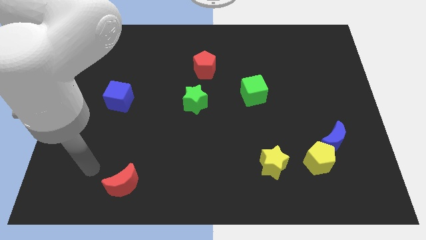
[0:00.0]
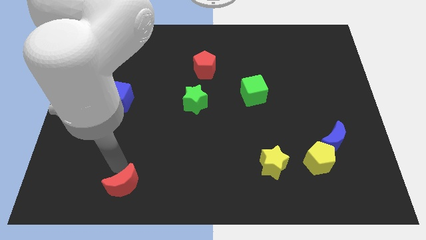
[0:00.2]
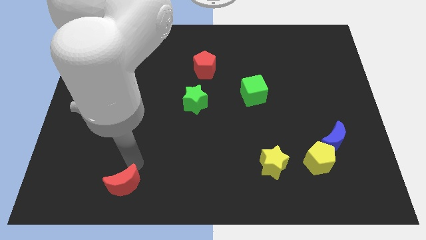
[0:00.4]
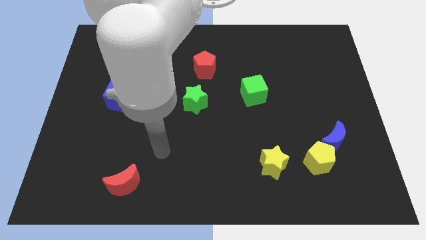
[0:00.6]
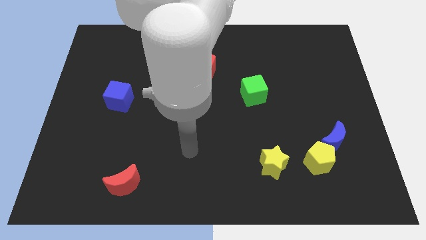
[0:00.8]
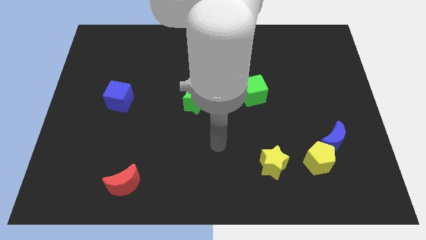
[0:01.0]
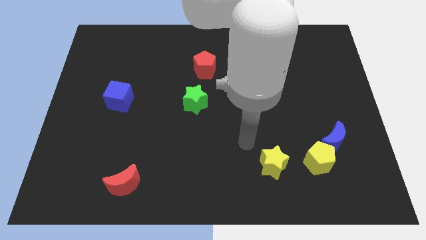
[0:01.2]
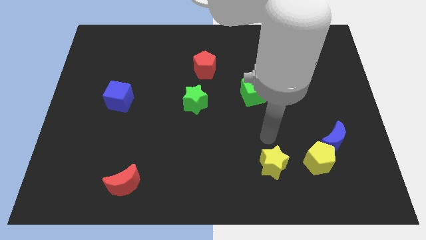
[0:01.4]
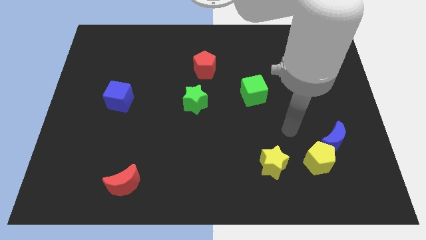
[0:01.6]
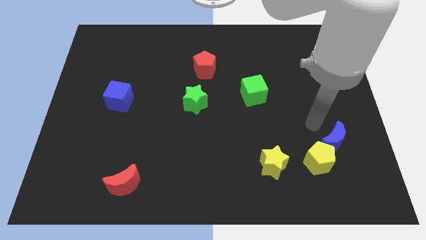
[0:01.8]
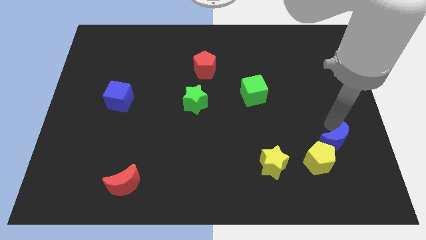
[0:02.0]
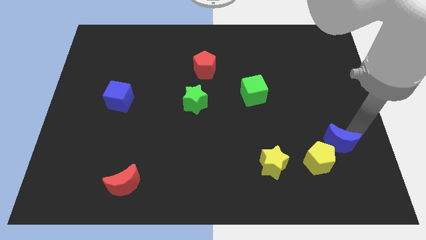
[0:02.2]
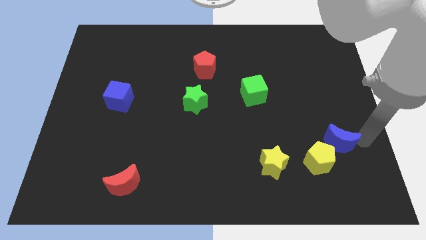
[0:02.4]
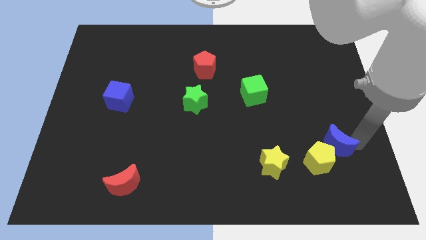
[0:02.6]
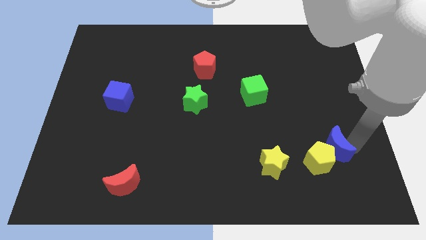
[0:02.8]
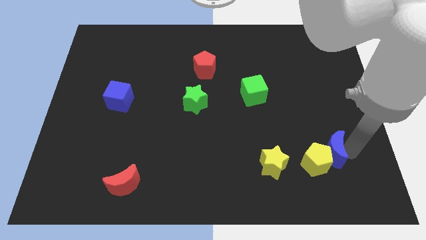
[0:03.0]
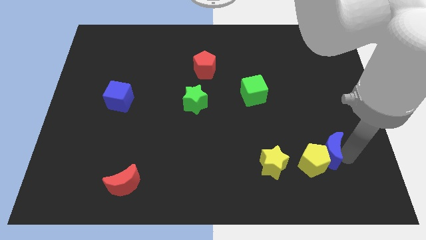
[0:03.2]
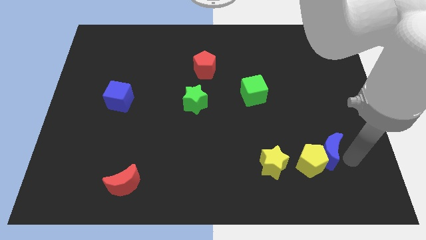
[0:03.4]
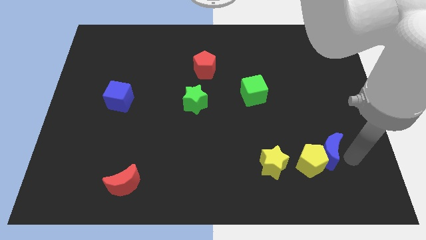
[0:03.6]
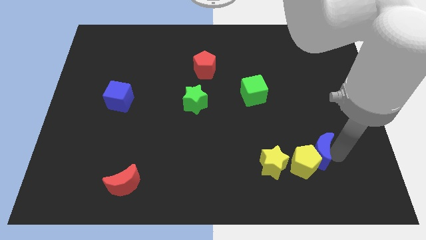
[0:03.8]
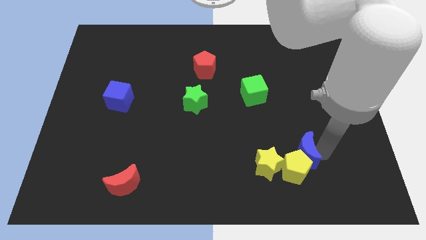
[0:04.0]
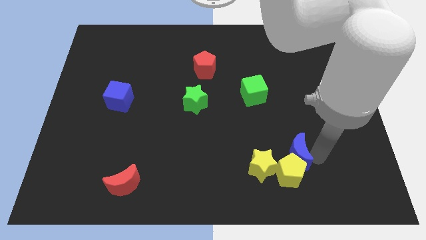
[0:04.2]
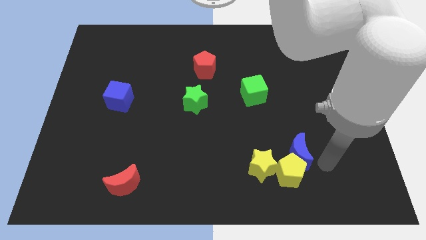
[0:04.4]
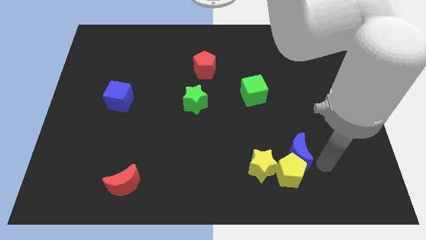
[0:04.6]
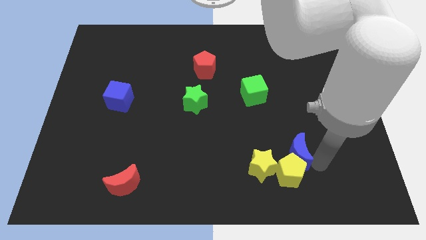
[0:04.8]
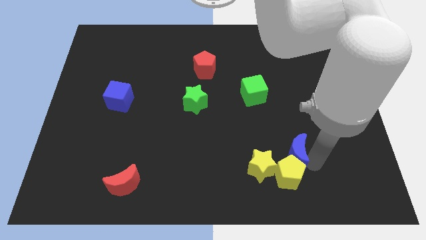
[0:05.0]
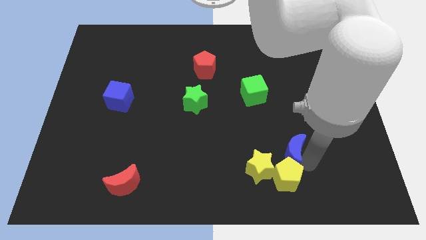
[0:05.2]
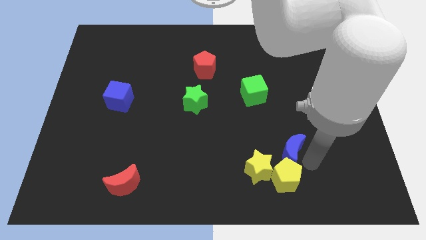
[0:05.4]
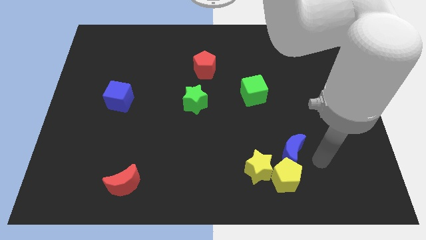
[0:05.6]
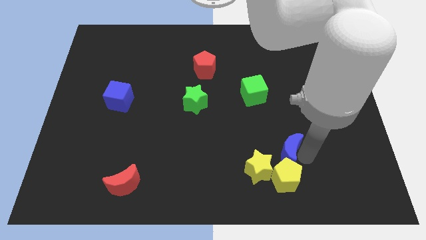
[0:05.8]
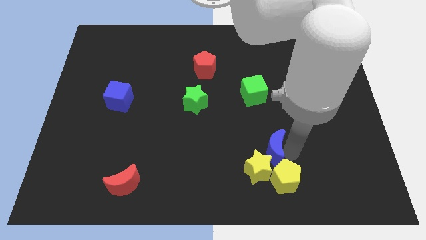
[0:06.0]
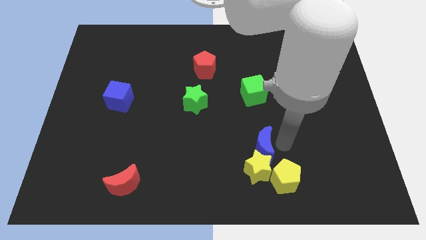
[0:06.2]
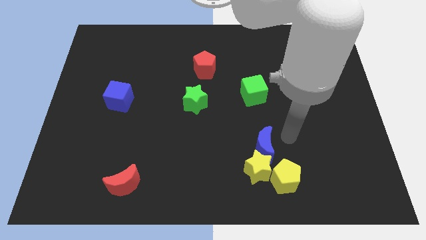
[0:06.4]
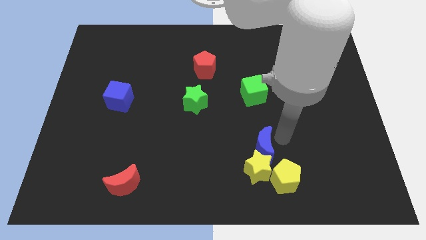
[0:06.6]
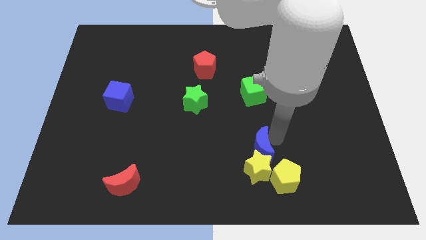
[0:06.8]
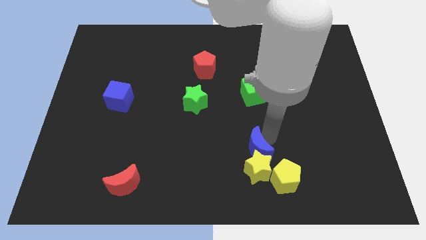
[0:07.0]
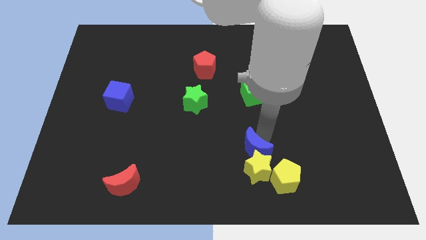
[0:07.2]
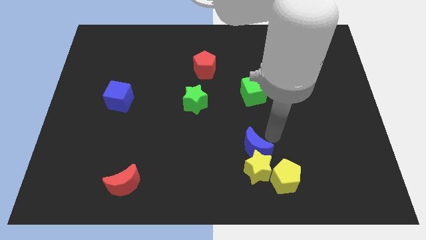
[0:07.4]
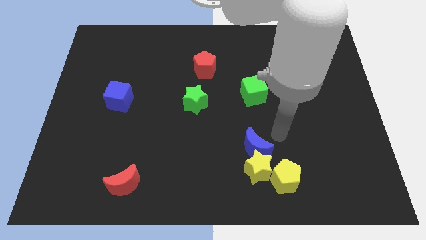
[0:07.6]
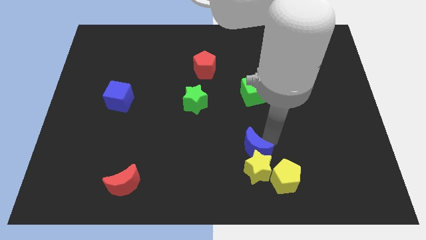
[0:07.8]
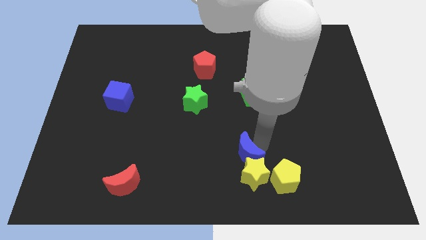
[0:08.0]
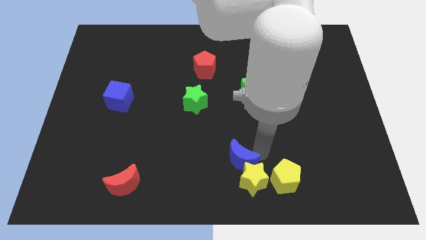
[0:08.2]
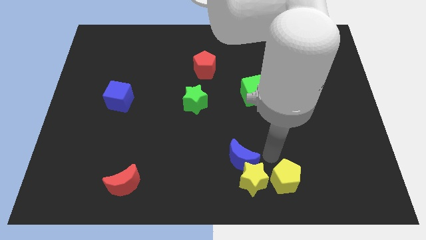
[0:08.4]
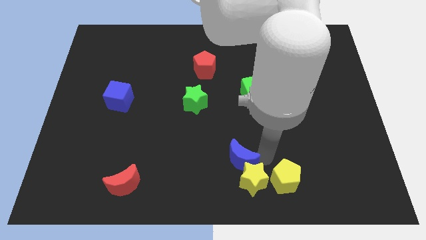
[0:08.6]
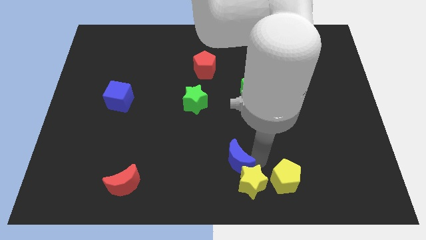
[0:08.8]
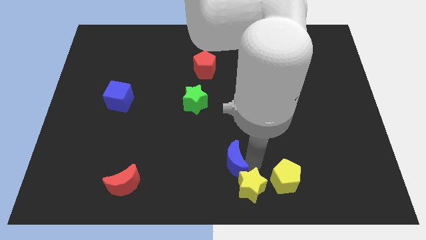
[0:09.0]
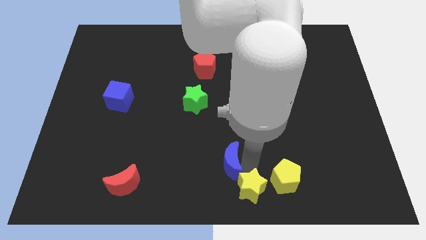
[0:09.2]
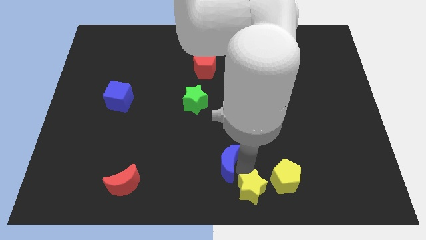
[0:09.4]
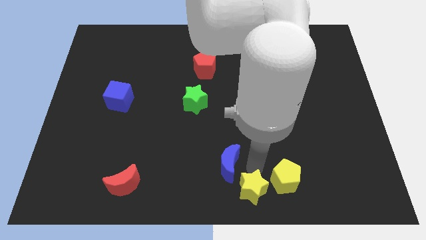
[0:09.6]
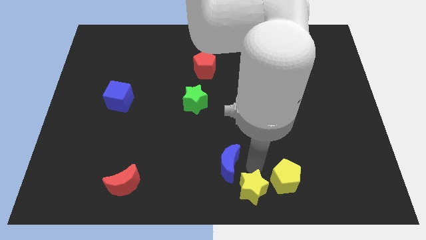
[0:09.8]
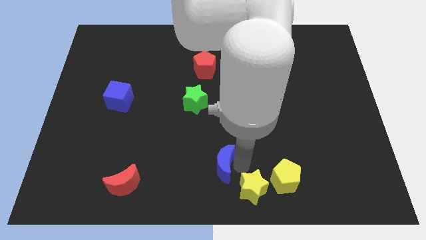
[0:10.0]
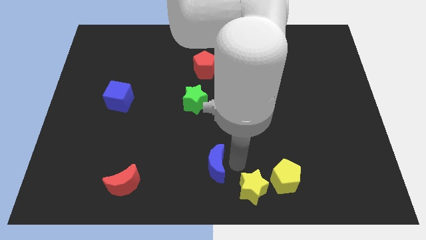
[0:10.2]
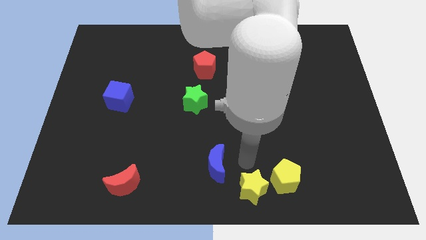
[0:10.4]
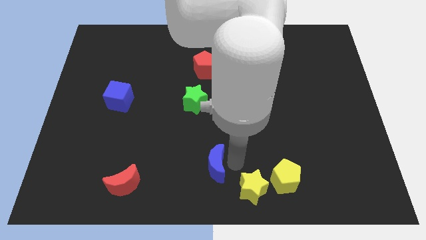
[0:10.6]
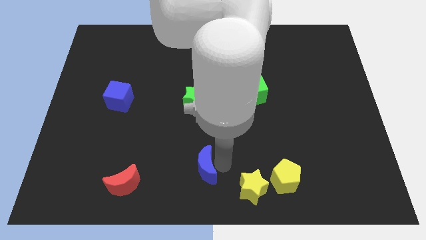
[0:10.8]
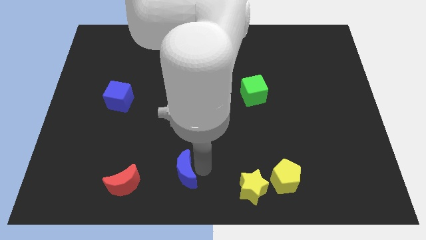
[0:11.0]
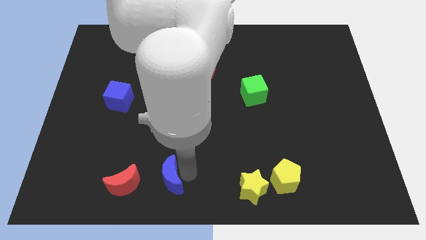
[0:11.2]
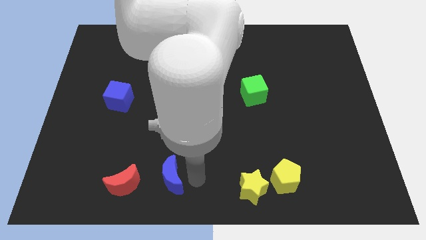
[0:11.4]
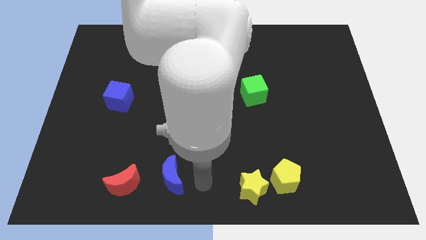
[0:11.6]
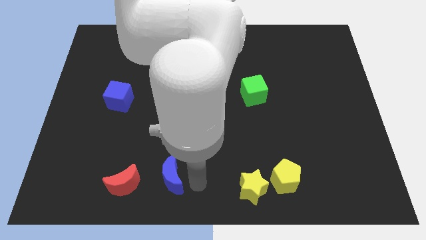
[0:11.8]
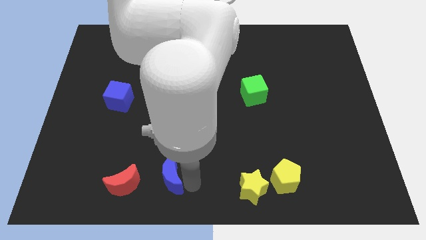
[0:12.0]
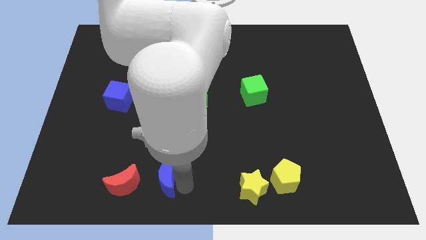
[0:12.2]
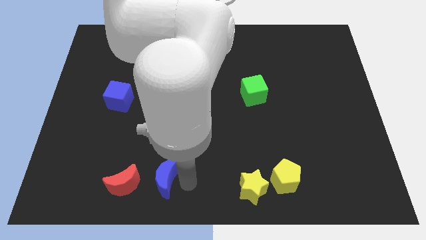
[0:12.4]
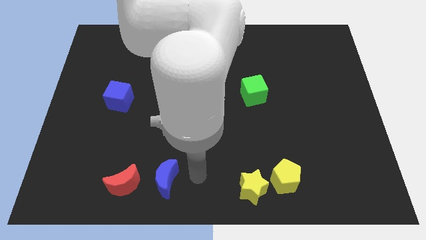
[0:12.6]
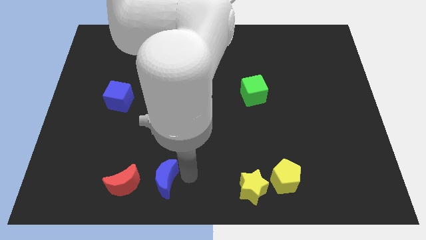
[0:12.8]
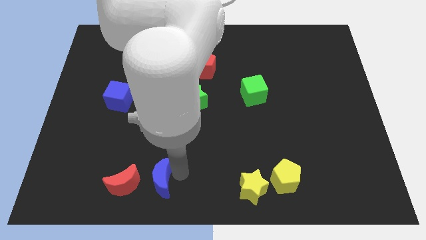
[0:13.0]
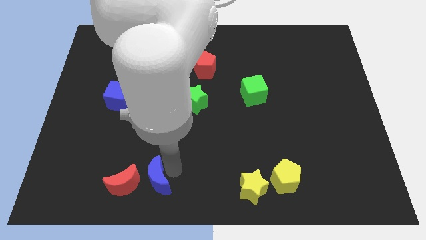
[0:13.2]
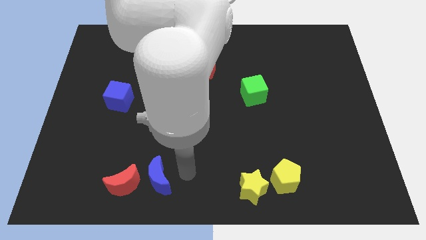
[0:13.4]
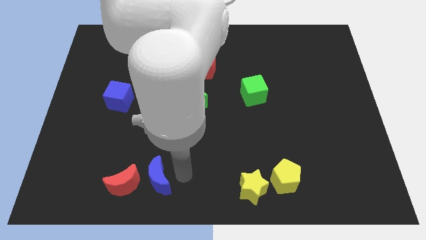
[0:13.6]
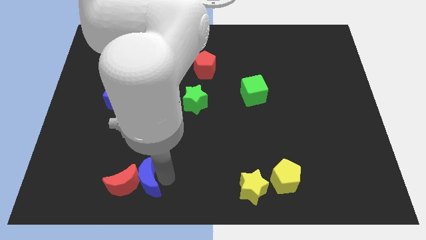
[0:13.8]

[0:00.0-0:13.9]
slide the blue moon towards the red moon
